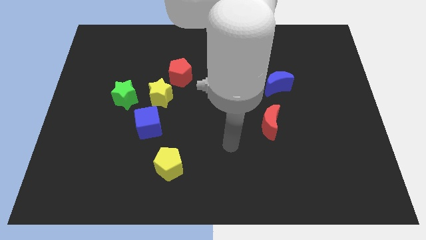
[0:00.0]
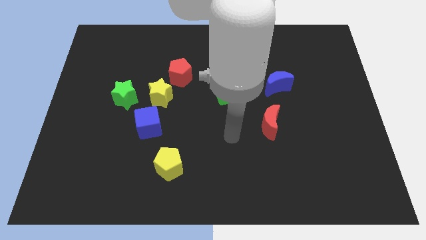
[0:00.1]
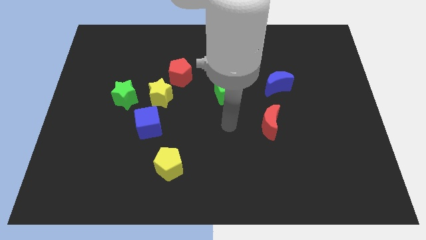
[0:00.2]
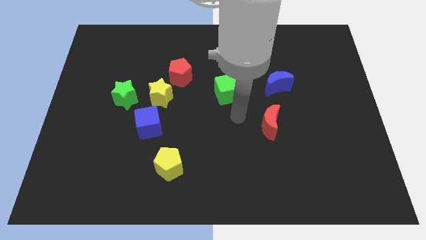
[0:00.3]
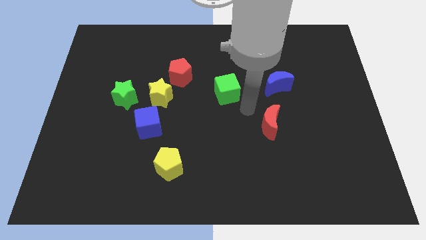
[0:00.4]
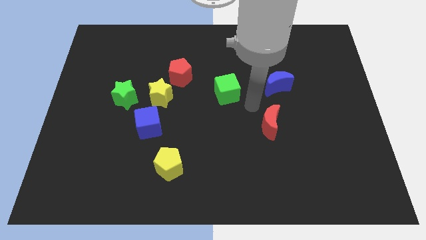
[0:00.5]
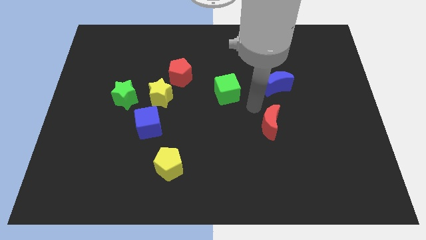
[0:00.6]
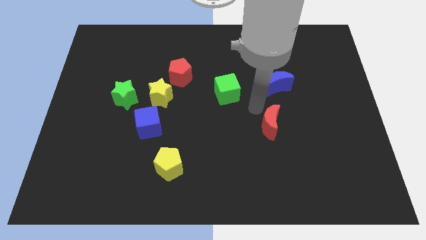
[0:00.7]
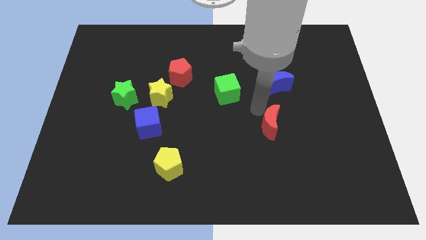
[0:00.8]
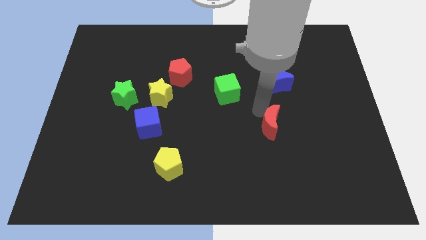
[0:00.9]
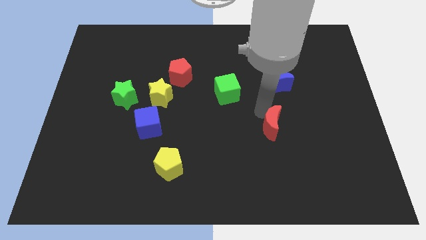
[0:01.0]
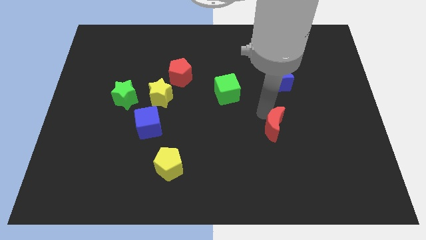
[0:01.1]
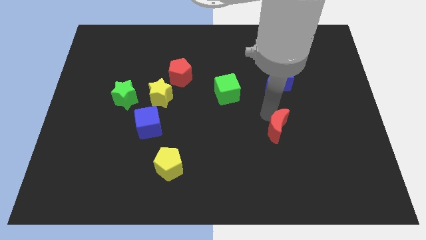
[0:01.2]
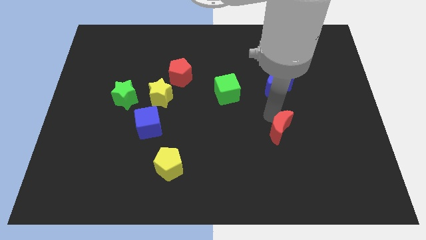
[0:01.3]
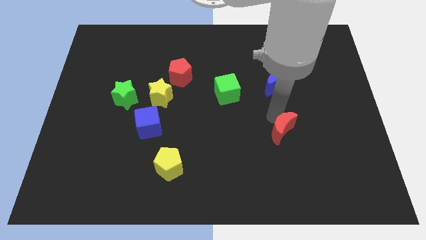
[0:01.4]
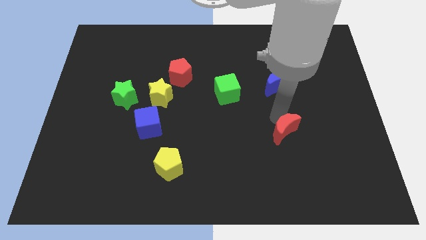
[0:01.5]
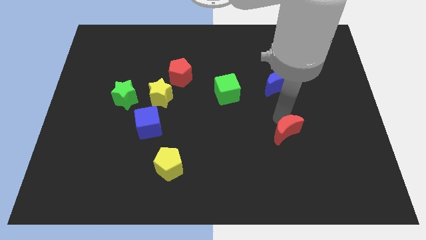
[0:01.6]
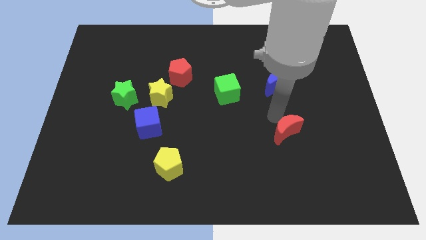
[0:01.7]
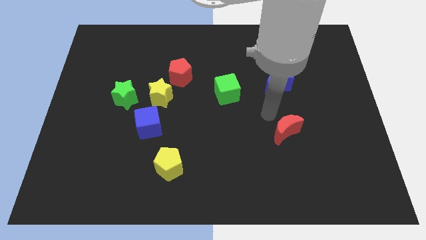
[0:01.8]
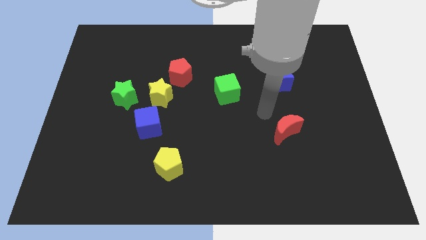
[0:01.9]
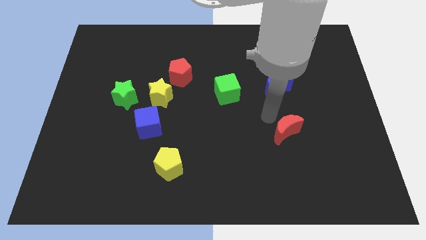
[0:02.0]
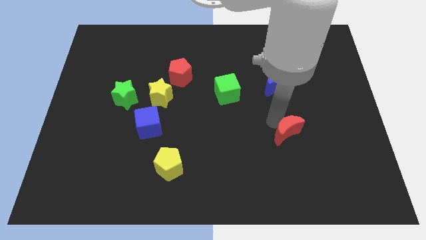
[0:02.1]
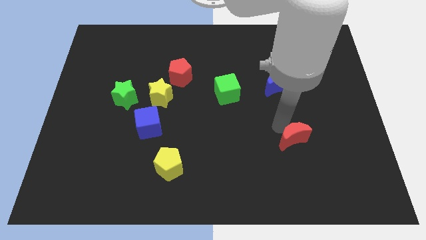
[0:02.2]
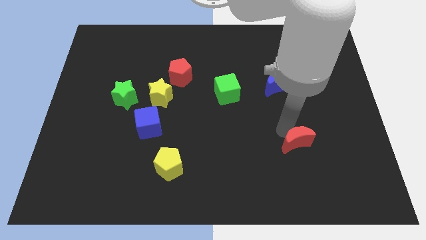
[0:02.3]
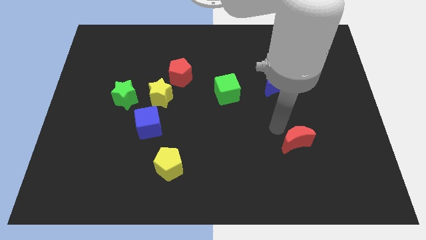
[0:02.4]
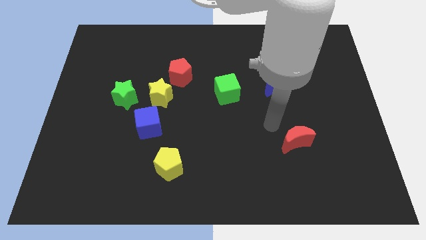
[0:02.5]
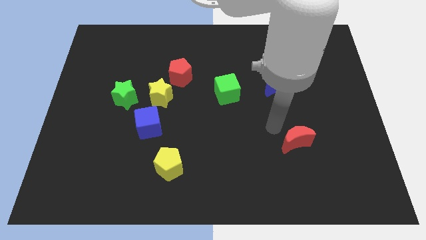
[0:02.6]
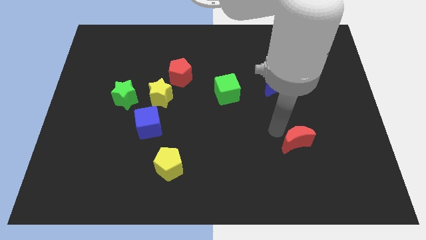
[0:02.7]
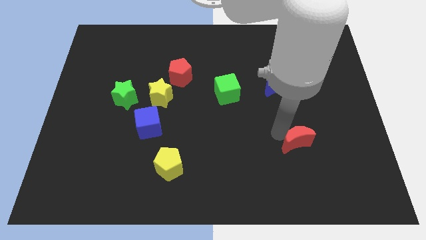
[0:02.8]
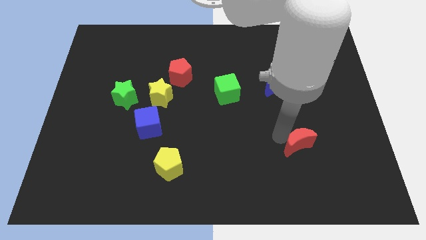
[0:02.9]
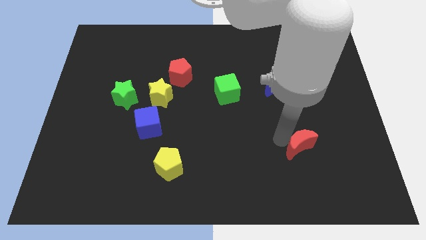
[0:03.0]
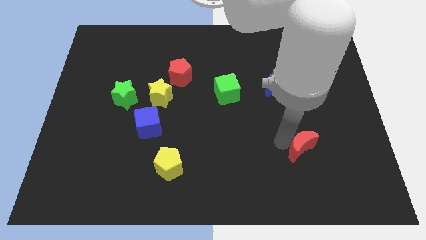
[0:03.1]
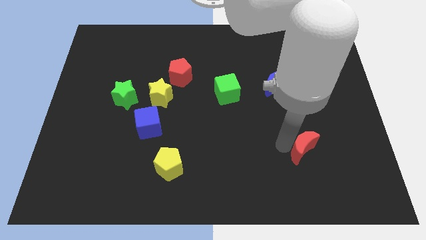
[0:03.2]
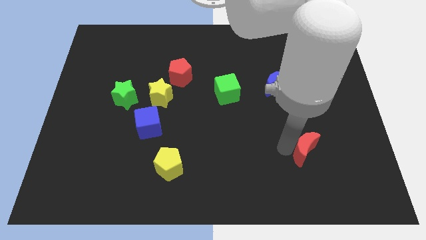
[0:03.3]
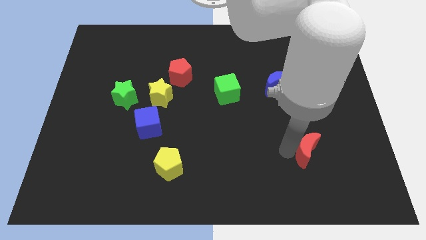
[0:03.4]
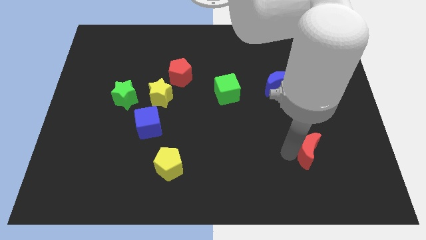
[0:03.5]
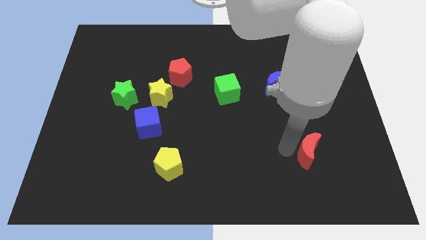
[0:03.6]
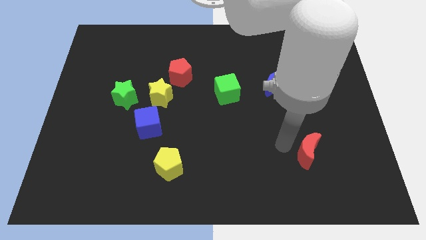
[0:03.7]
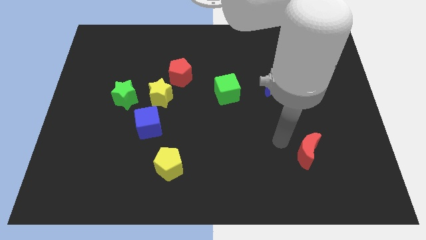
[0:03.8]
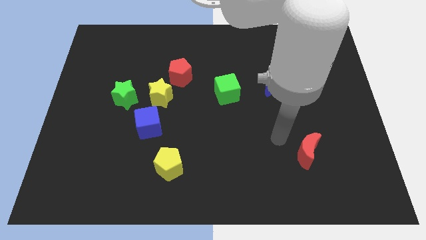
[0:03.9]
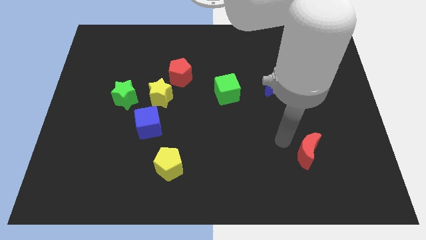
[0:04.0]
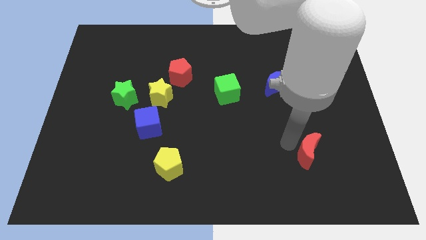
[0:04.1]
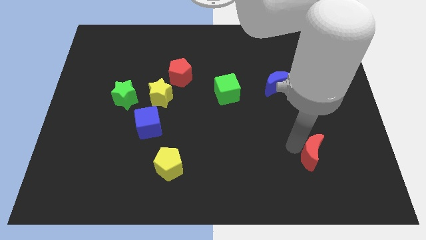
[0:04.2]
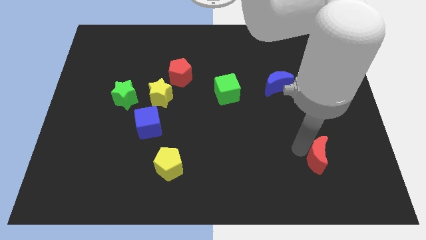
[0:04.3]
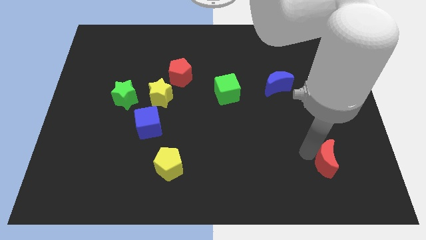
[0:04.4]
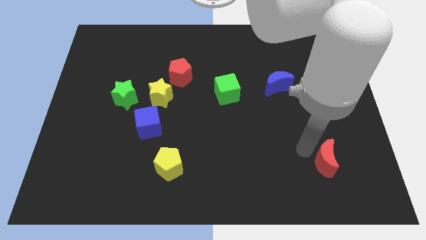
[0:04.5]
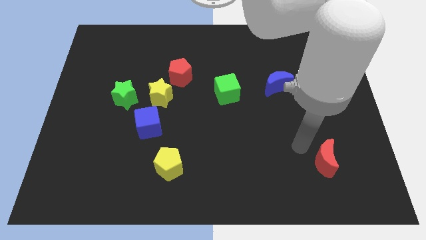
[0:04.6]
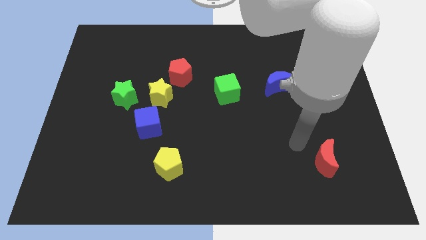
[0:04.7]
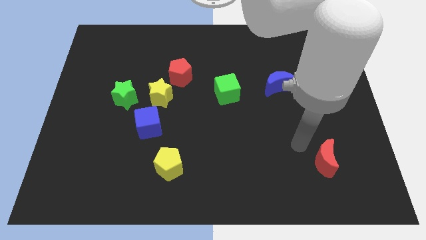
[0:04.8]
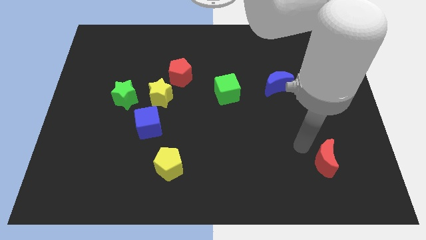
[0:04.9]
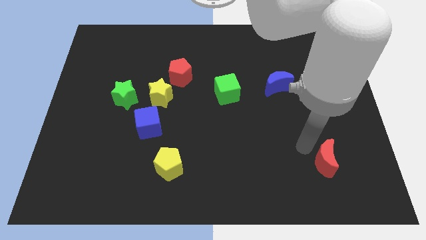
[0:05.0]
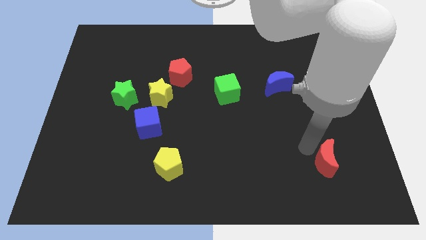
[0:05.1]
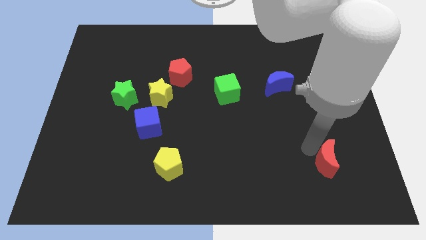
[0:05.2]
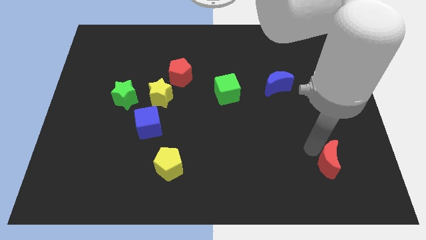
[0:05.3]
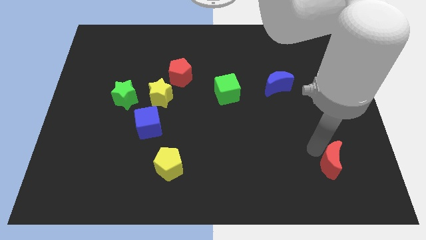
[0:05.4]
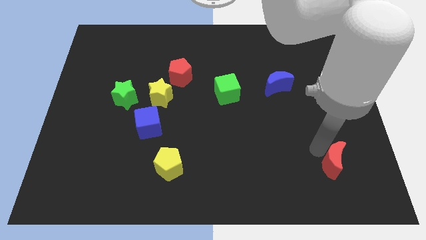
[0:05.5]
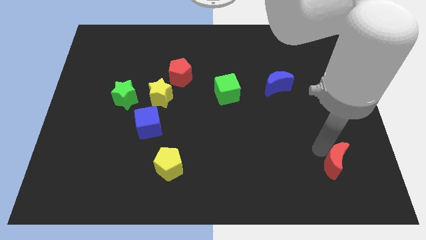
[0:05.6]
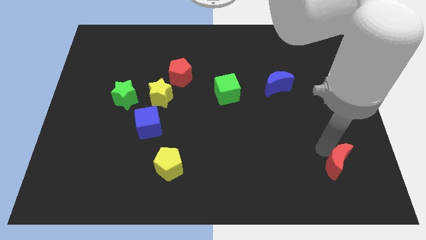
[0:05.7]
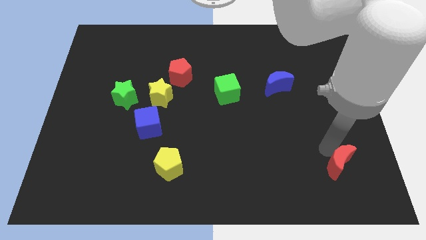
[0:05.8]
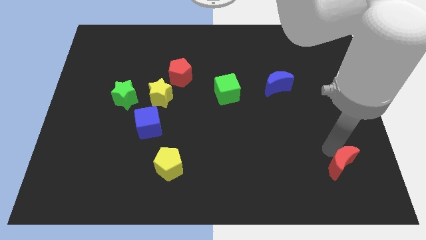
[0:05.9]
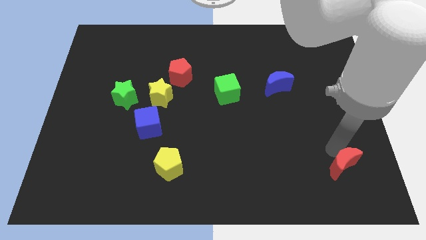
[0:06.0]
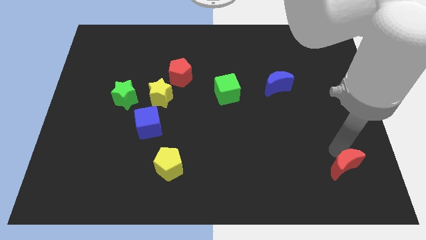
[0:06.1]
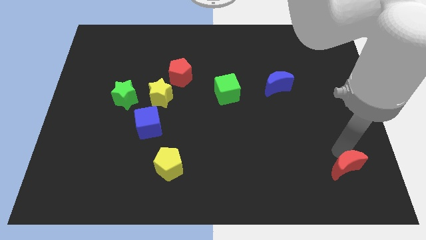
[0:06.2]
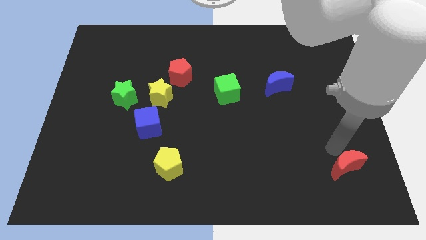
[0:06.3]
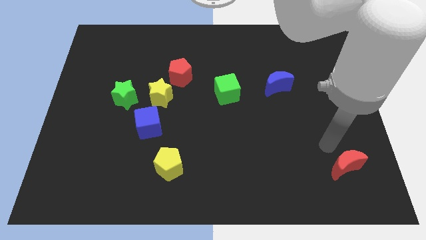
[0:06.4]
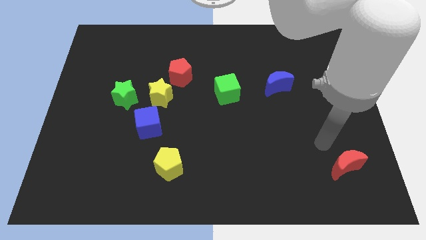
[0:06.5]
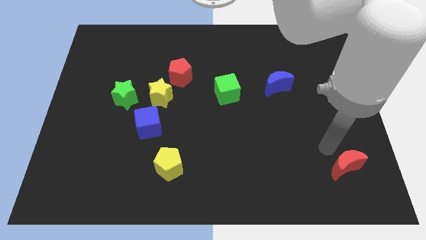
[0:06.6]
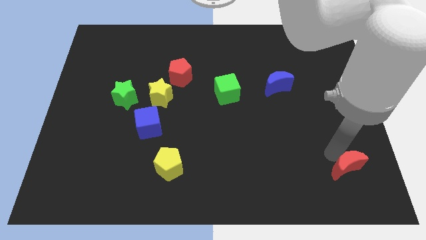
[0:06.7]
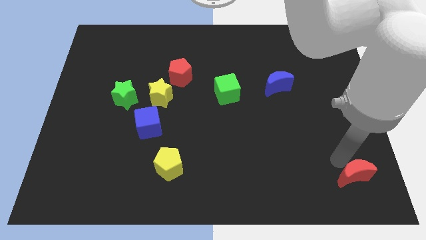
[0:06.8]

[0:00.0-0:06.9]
move the red moon to the bottom right
